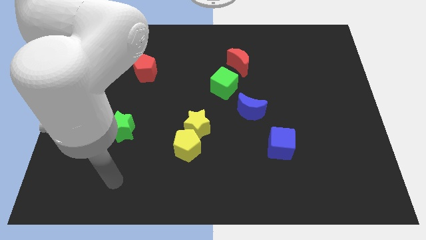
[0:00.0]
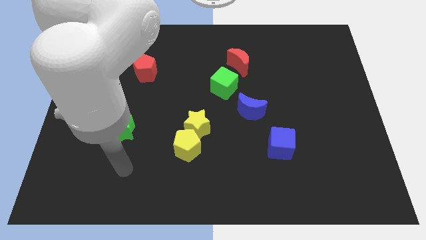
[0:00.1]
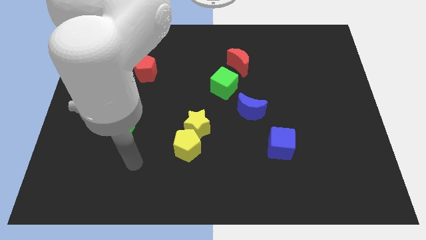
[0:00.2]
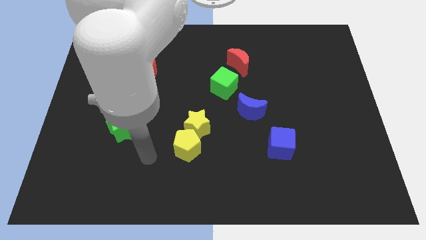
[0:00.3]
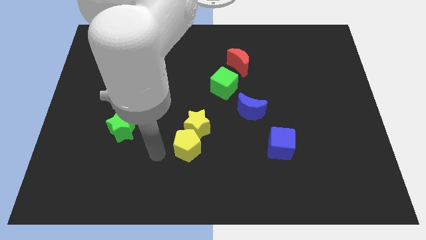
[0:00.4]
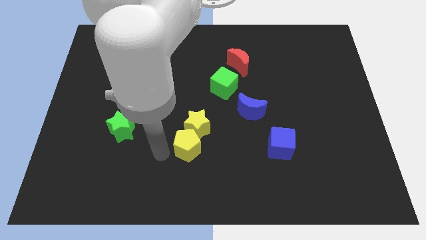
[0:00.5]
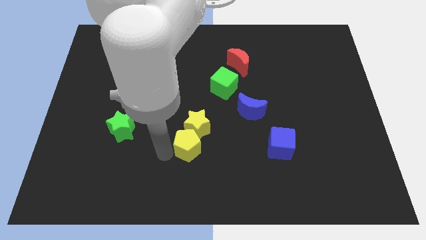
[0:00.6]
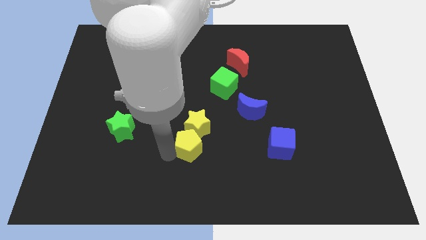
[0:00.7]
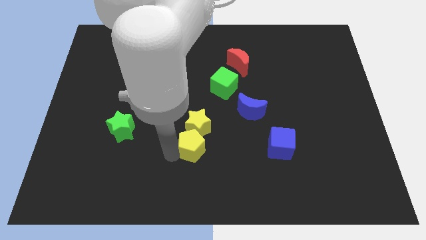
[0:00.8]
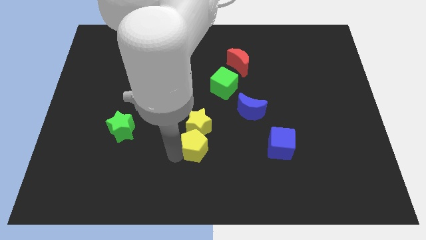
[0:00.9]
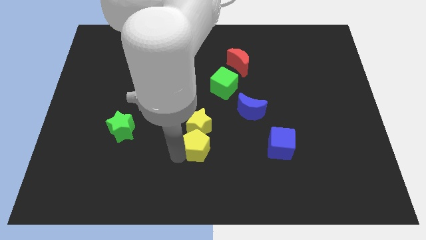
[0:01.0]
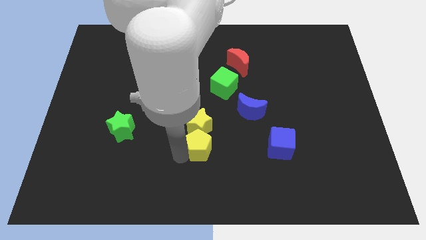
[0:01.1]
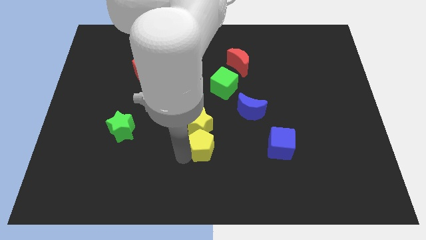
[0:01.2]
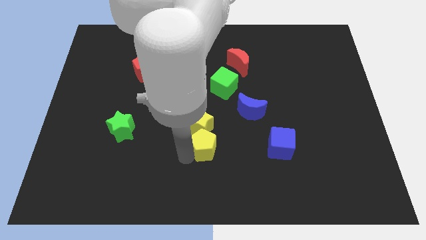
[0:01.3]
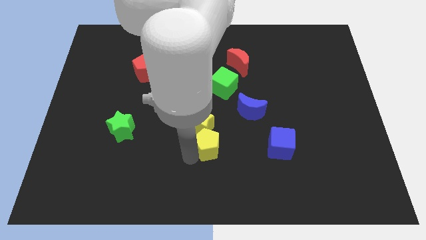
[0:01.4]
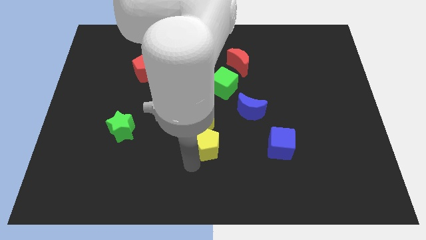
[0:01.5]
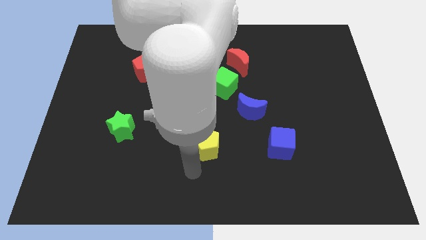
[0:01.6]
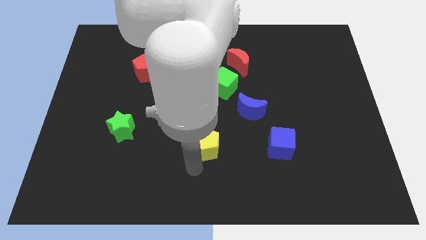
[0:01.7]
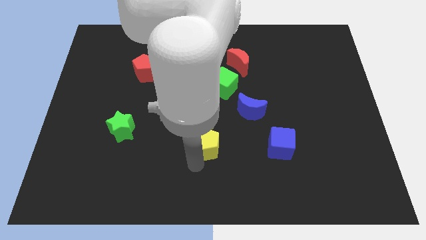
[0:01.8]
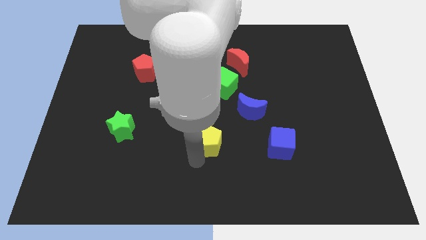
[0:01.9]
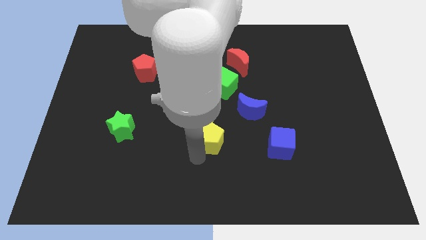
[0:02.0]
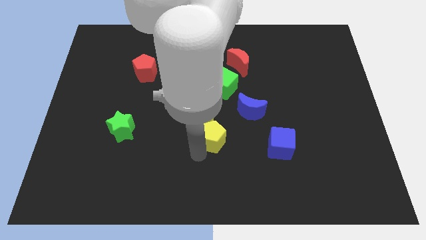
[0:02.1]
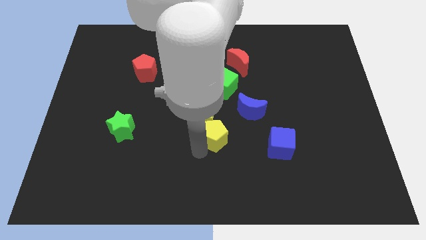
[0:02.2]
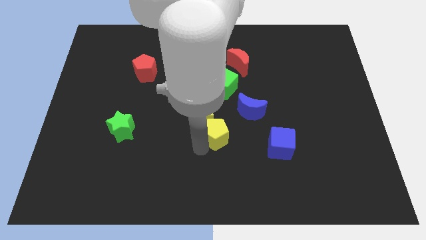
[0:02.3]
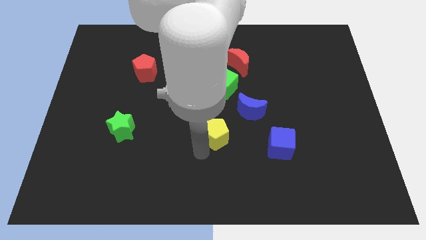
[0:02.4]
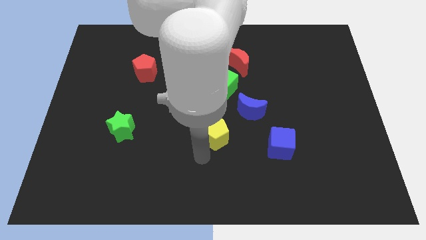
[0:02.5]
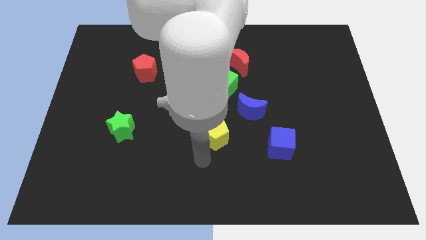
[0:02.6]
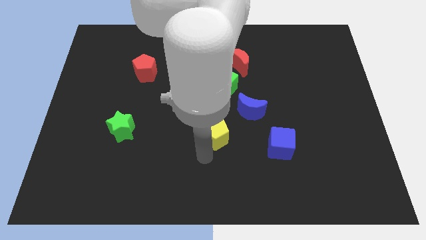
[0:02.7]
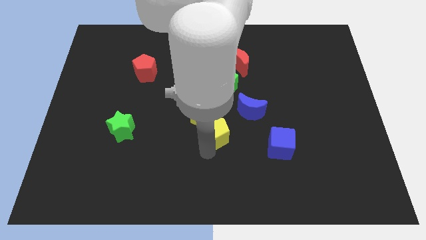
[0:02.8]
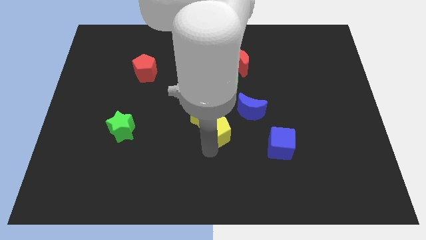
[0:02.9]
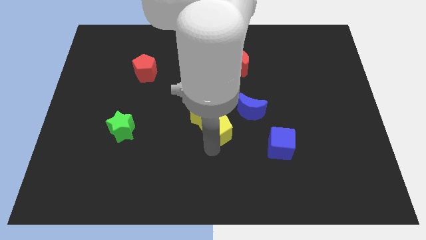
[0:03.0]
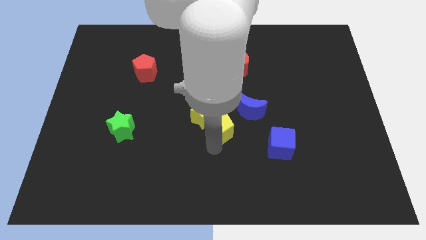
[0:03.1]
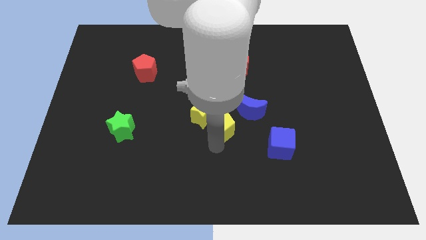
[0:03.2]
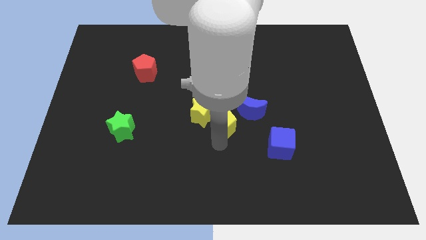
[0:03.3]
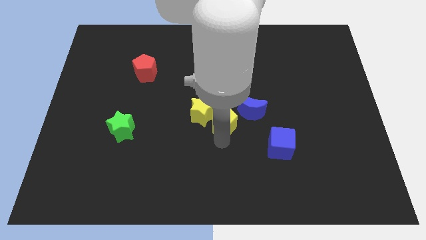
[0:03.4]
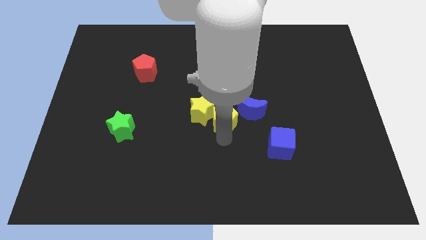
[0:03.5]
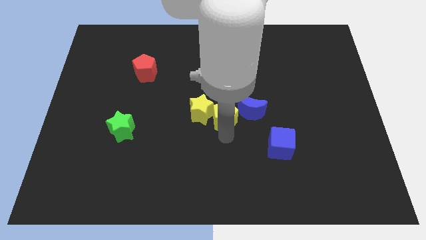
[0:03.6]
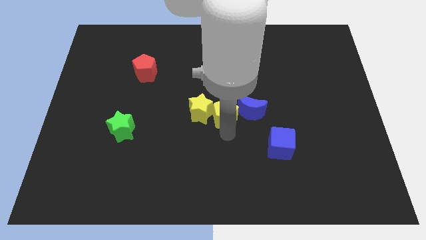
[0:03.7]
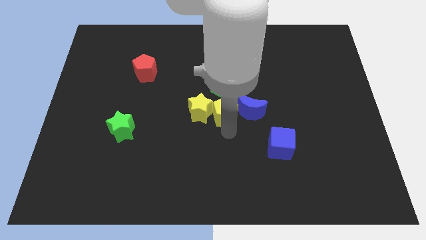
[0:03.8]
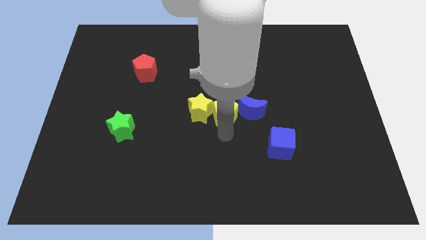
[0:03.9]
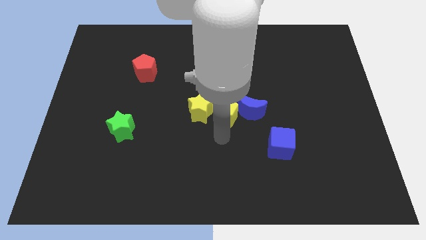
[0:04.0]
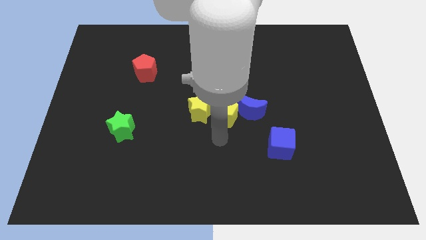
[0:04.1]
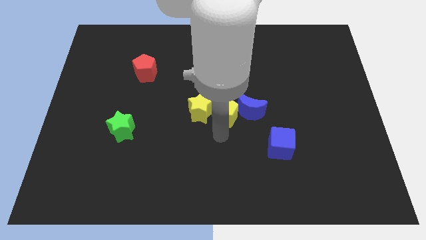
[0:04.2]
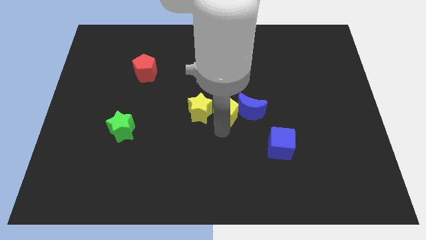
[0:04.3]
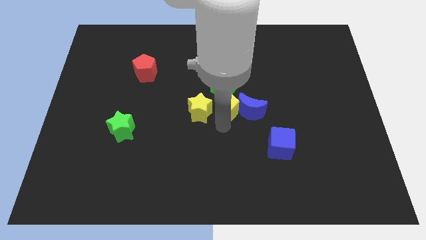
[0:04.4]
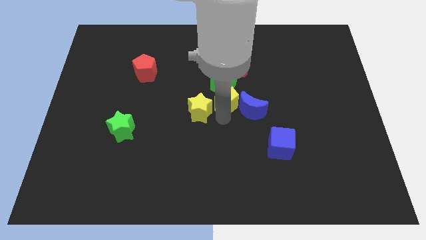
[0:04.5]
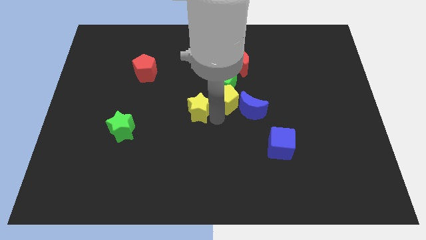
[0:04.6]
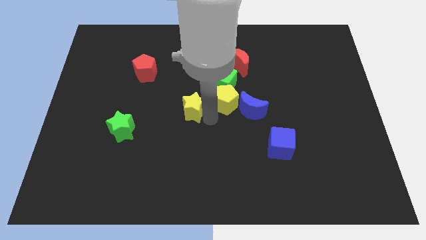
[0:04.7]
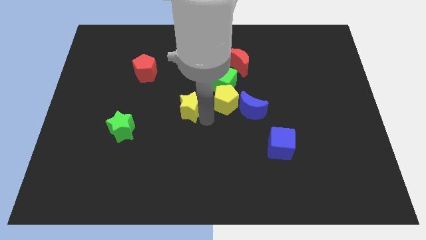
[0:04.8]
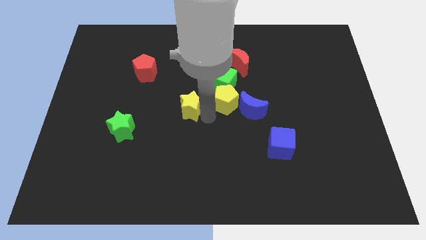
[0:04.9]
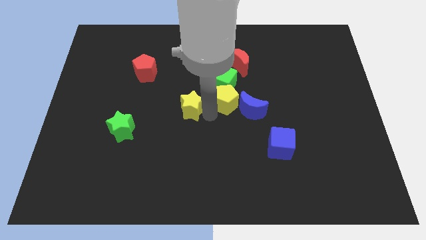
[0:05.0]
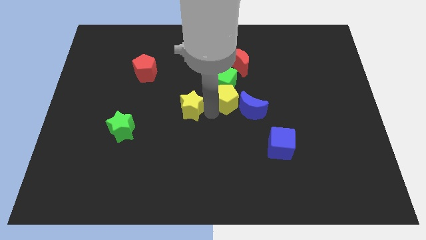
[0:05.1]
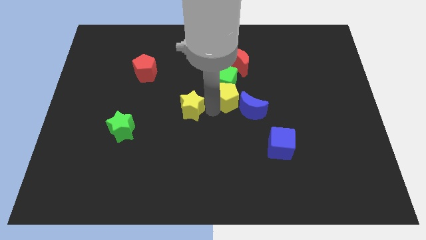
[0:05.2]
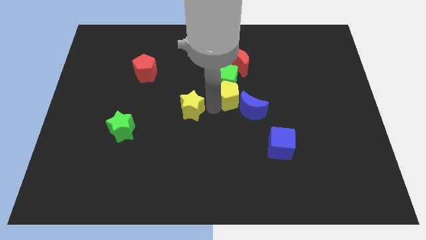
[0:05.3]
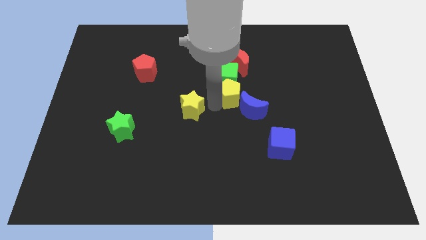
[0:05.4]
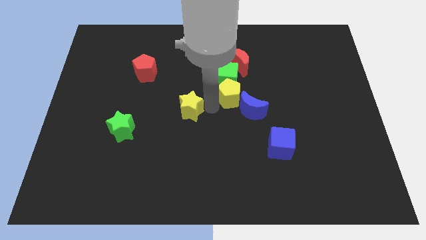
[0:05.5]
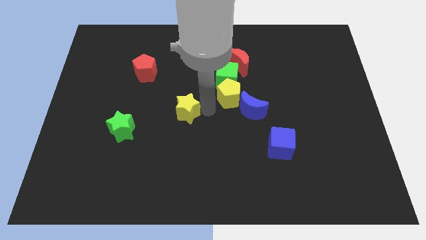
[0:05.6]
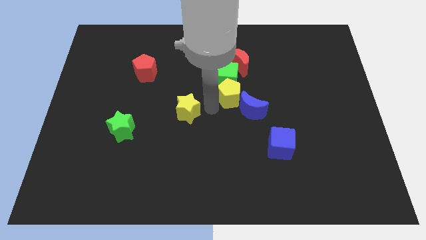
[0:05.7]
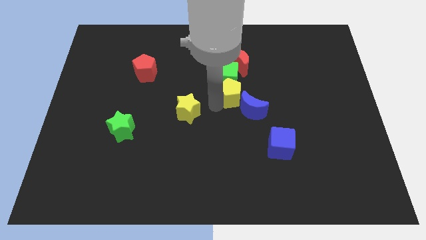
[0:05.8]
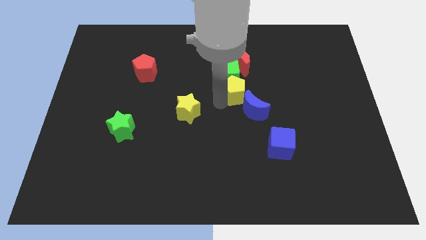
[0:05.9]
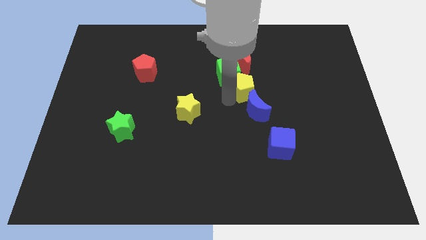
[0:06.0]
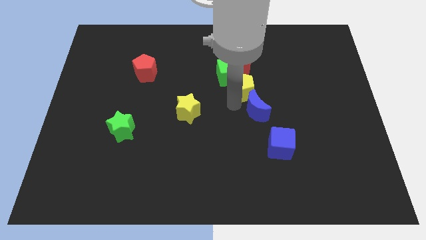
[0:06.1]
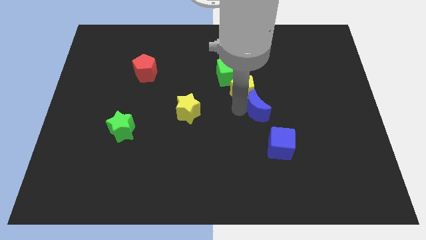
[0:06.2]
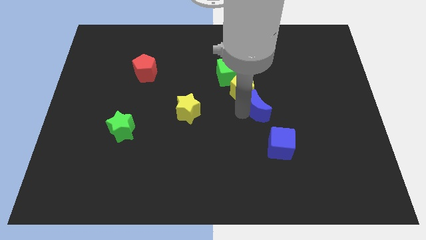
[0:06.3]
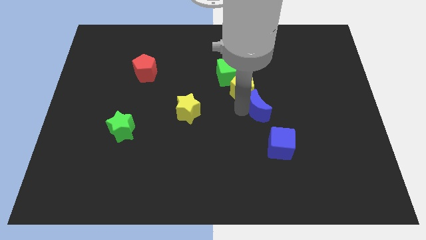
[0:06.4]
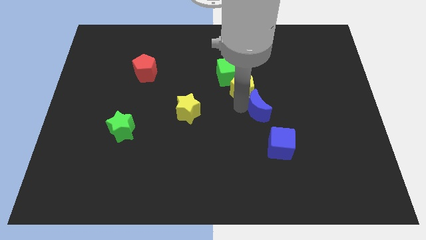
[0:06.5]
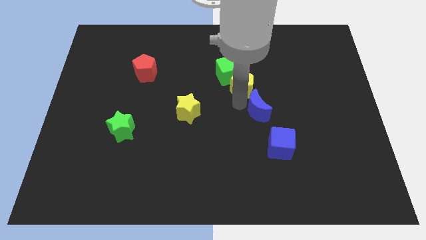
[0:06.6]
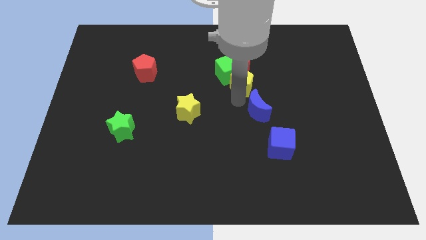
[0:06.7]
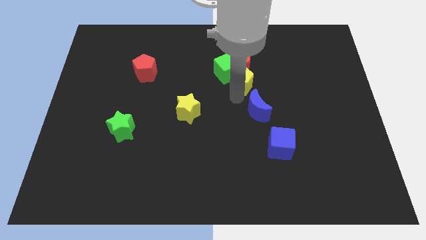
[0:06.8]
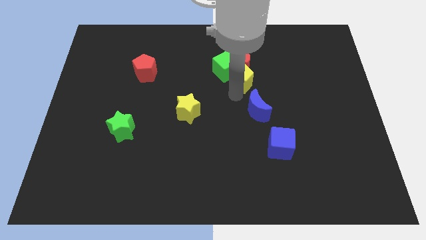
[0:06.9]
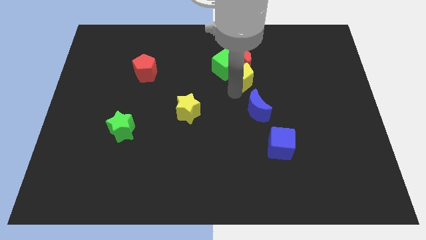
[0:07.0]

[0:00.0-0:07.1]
slide the yellow pentagon next to the red moon
